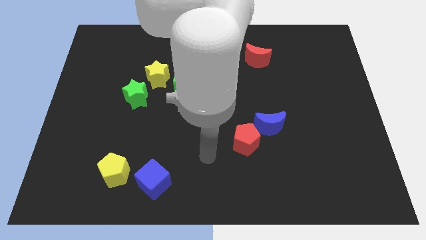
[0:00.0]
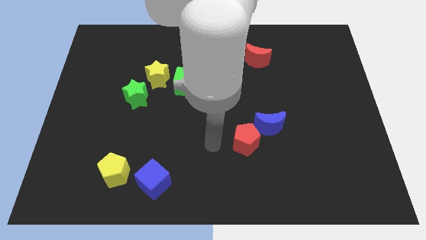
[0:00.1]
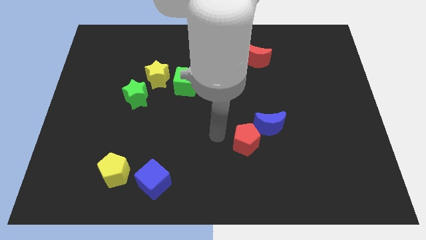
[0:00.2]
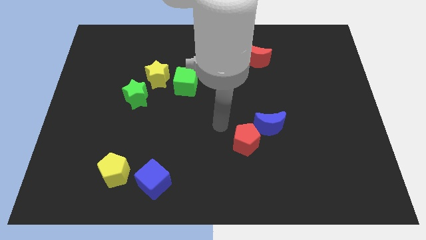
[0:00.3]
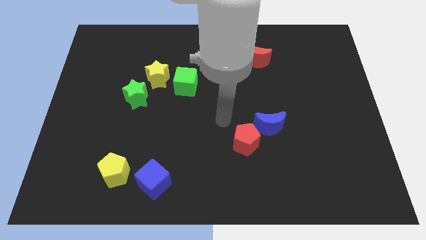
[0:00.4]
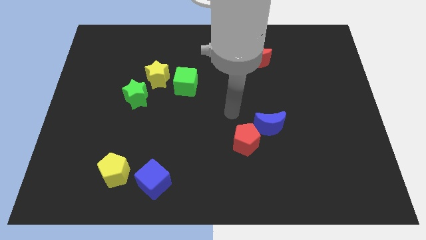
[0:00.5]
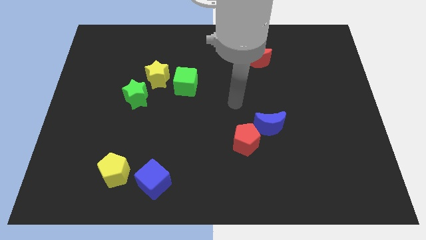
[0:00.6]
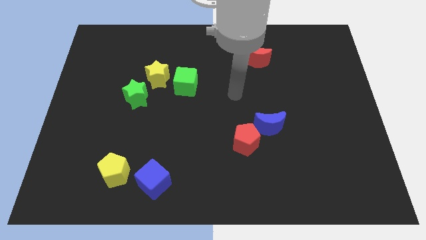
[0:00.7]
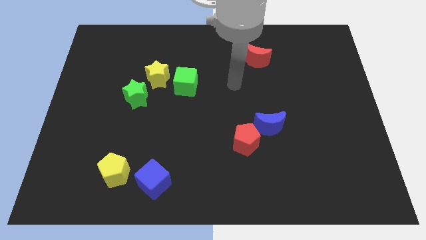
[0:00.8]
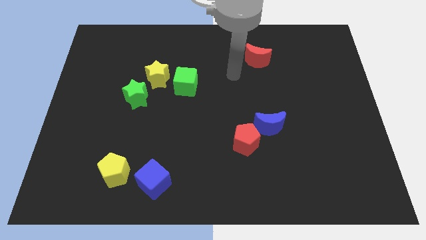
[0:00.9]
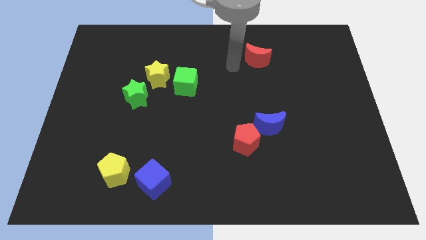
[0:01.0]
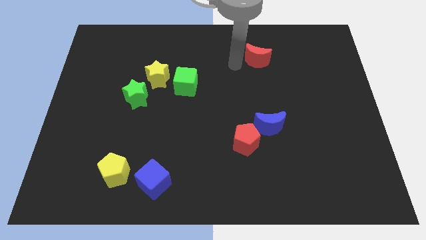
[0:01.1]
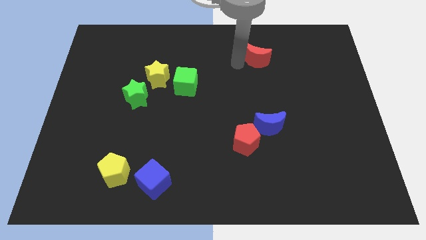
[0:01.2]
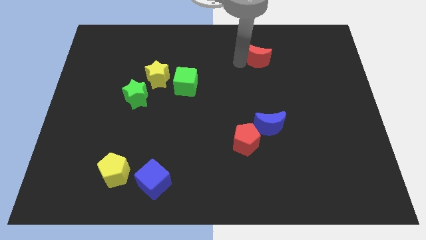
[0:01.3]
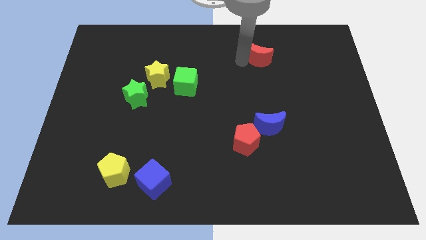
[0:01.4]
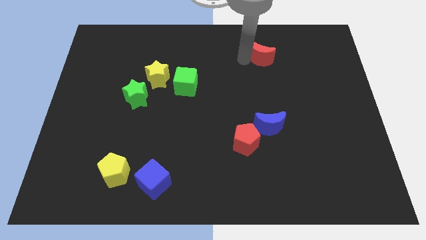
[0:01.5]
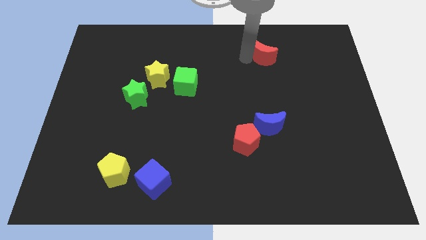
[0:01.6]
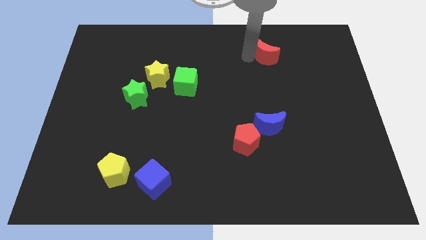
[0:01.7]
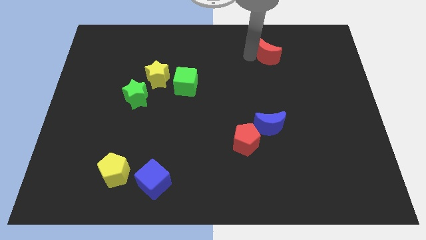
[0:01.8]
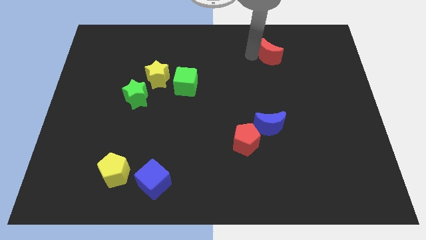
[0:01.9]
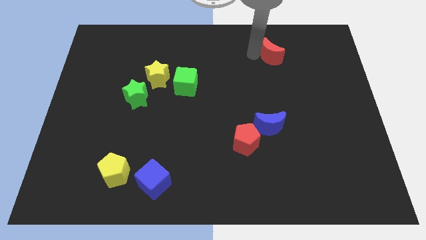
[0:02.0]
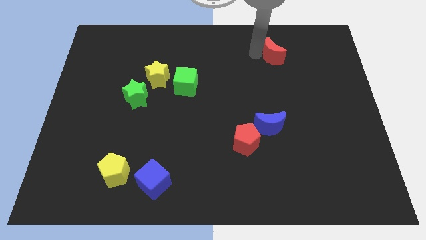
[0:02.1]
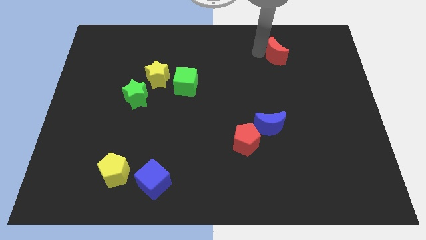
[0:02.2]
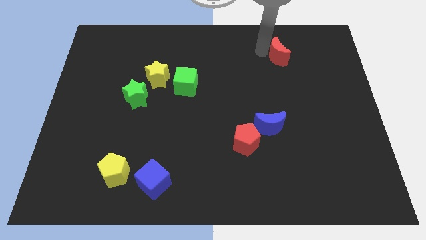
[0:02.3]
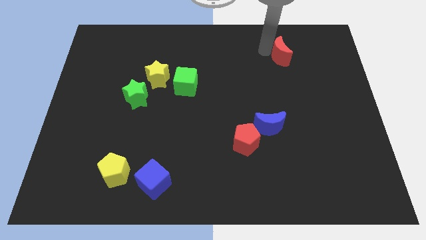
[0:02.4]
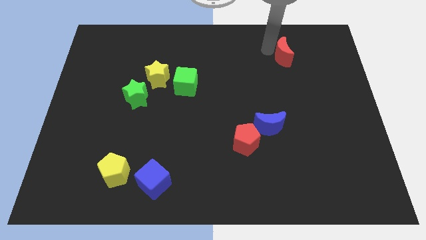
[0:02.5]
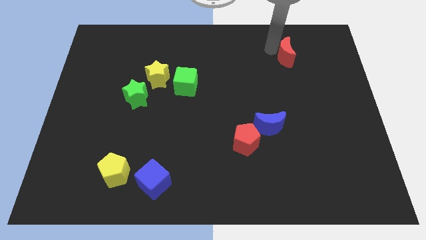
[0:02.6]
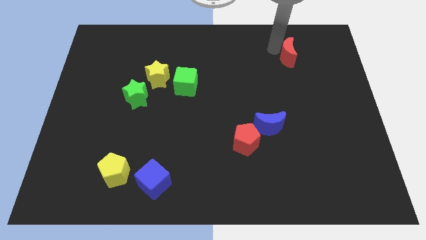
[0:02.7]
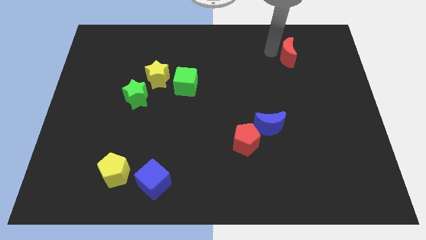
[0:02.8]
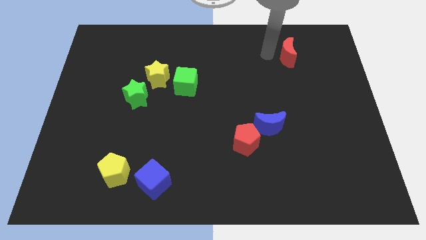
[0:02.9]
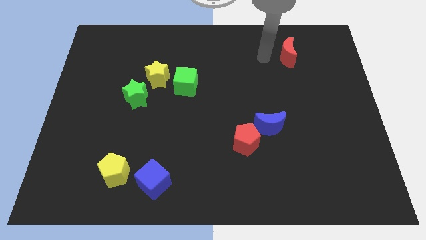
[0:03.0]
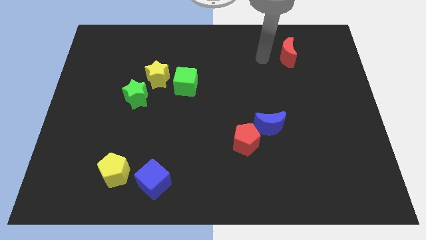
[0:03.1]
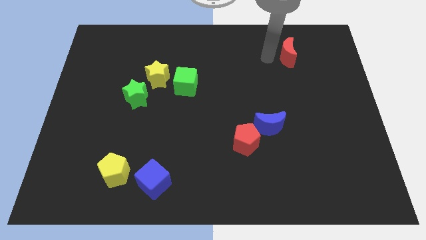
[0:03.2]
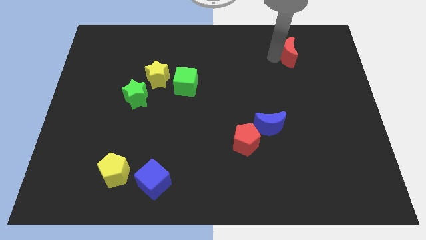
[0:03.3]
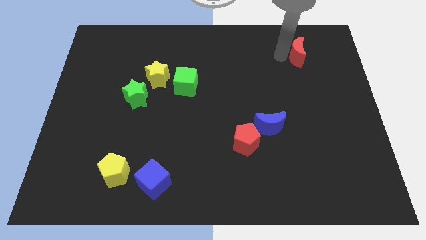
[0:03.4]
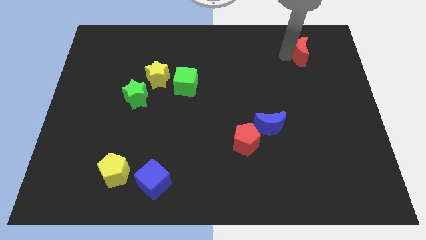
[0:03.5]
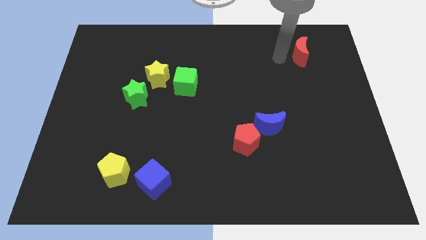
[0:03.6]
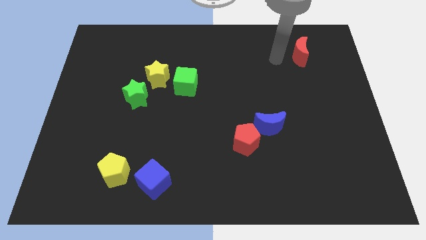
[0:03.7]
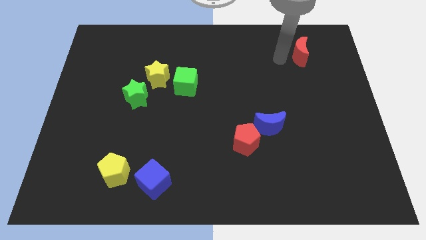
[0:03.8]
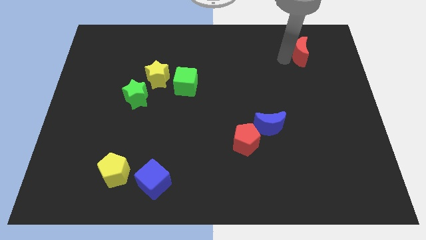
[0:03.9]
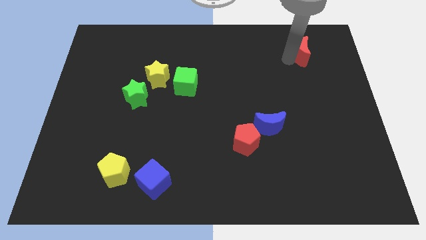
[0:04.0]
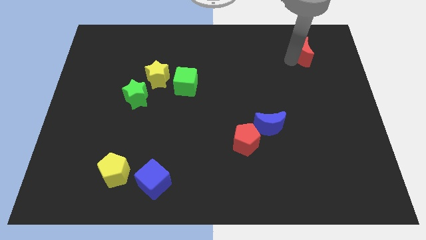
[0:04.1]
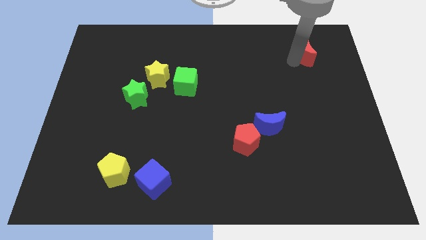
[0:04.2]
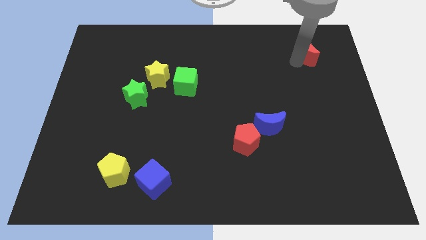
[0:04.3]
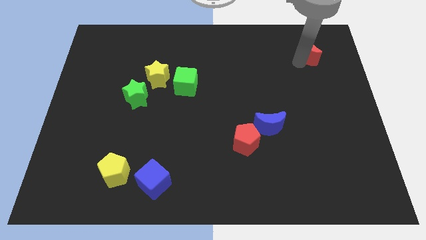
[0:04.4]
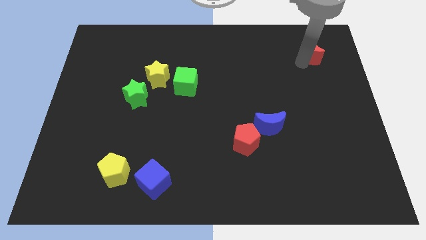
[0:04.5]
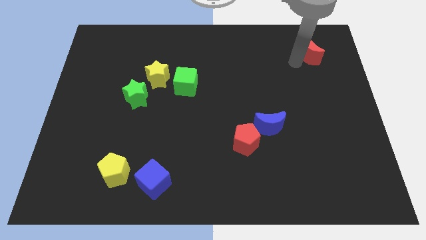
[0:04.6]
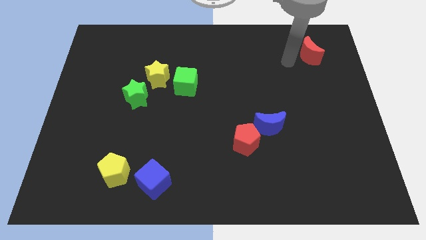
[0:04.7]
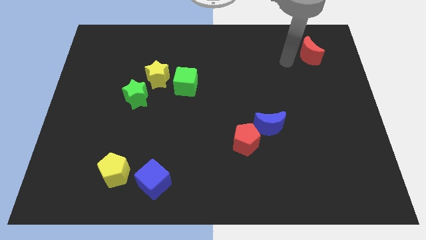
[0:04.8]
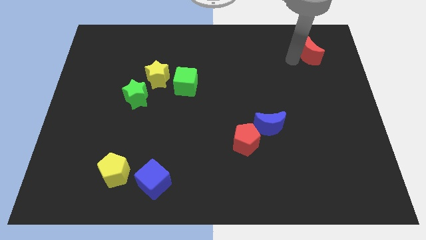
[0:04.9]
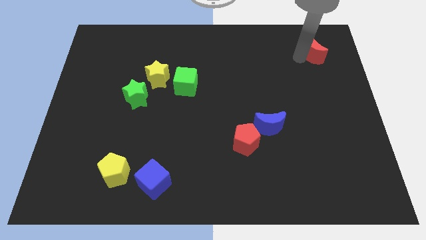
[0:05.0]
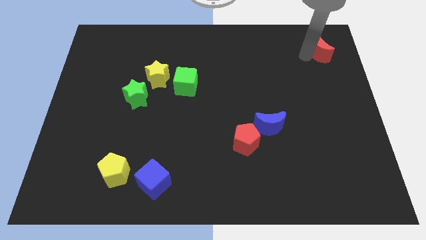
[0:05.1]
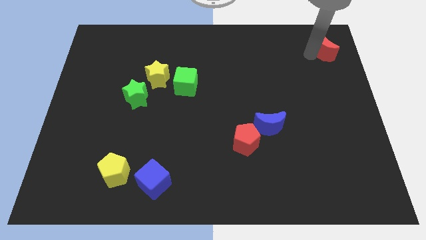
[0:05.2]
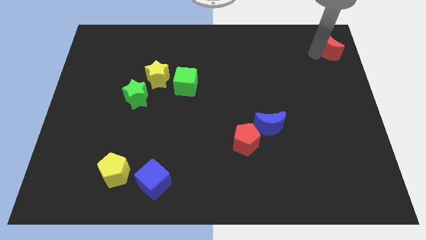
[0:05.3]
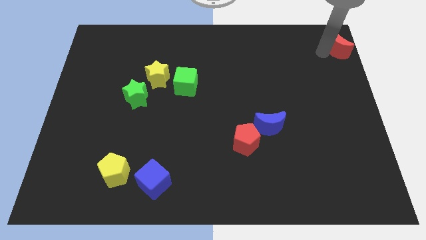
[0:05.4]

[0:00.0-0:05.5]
push the red moon to the top right

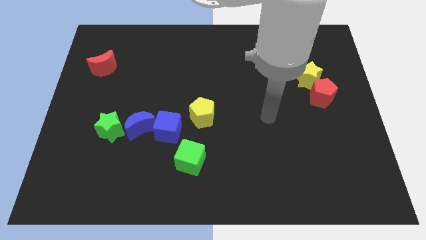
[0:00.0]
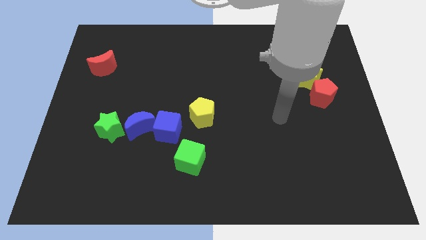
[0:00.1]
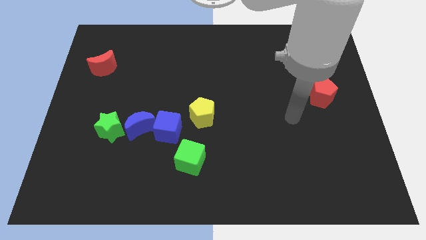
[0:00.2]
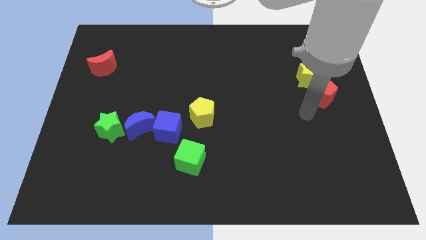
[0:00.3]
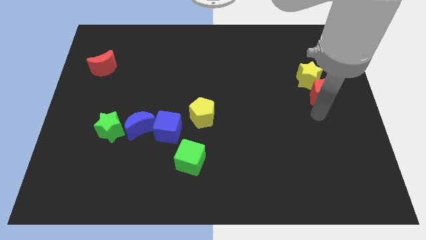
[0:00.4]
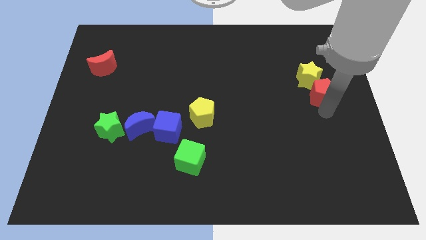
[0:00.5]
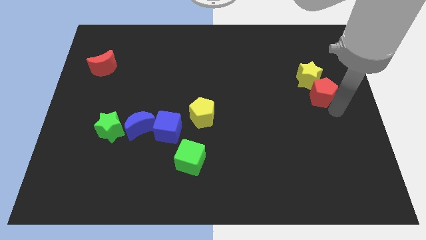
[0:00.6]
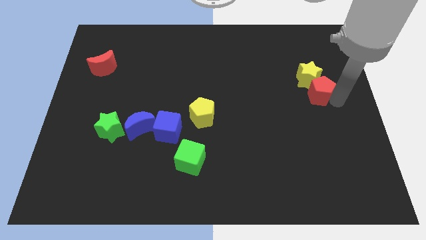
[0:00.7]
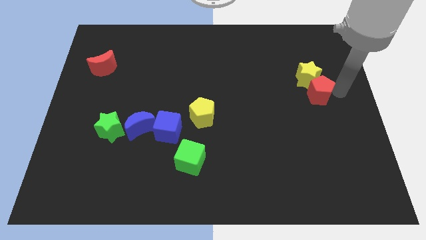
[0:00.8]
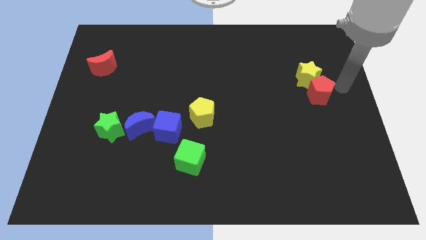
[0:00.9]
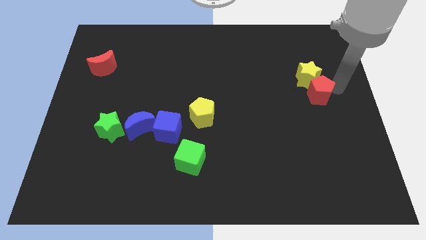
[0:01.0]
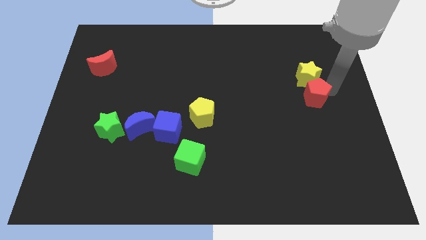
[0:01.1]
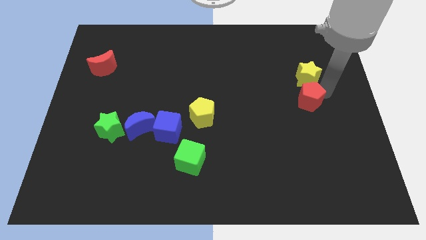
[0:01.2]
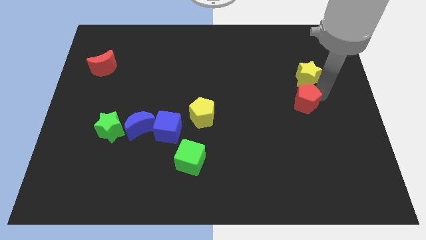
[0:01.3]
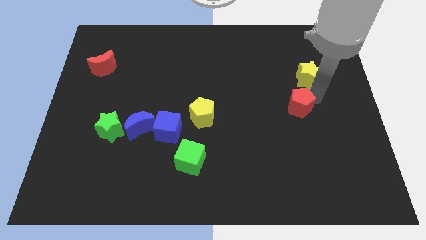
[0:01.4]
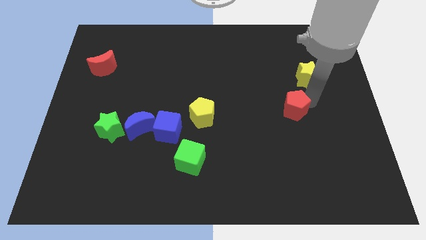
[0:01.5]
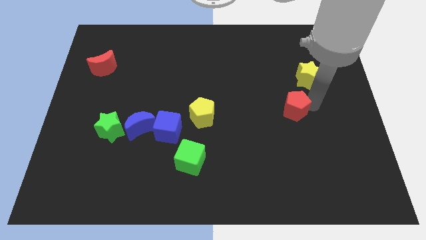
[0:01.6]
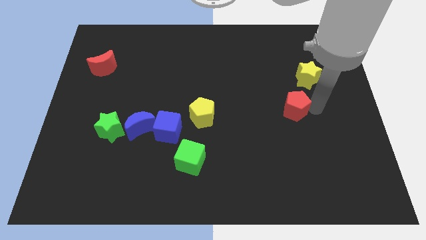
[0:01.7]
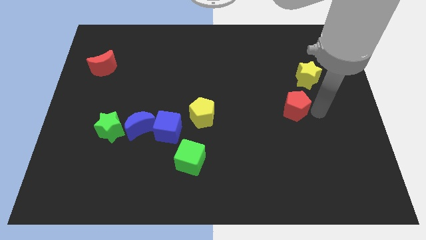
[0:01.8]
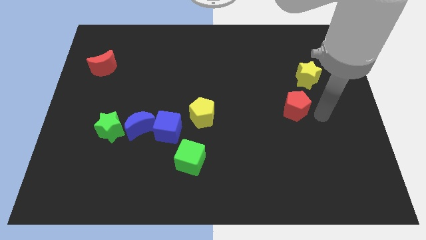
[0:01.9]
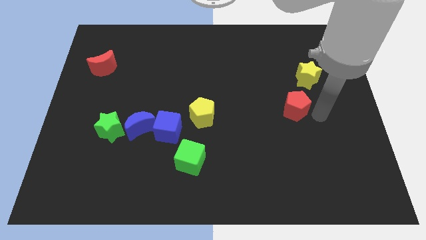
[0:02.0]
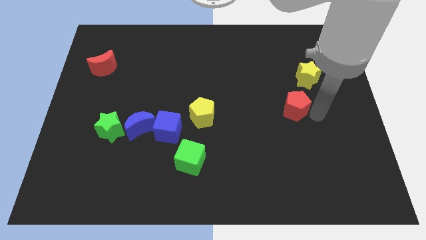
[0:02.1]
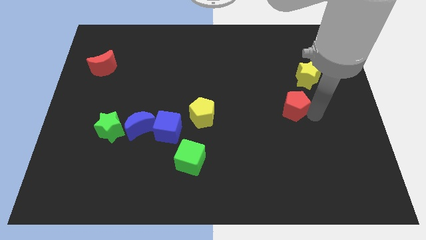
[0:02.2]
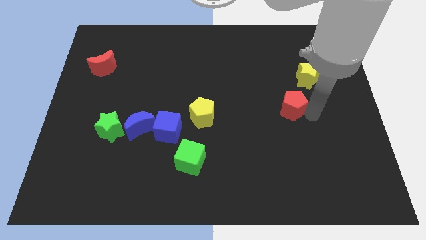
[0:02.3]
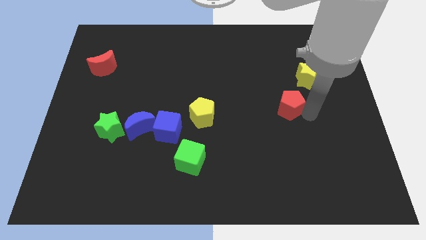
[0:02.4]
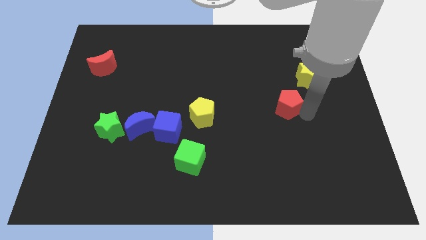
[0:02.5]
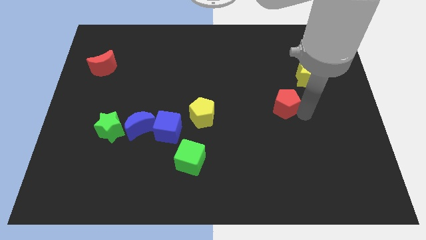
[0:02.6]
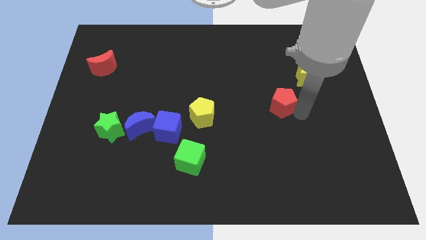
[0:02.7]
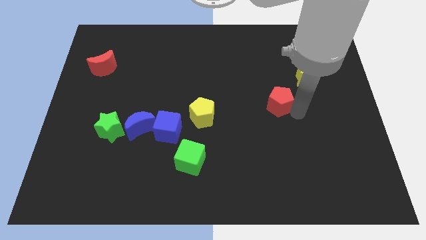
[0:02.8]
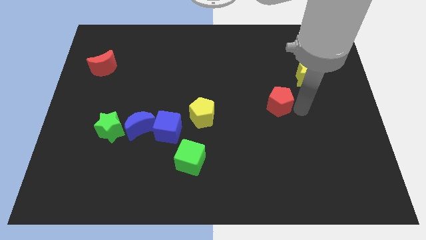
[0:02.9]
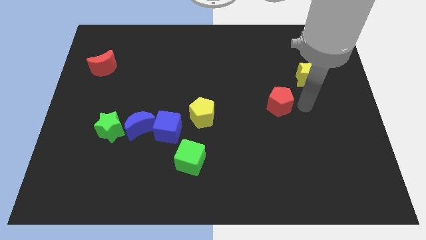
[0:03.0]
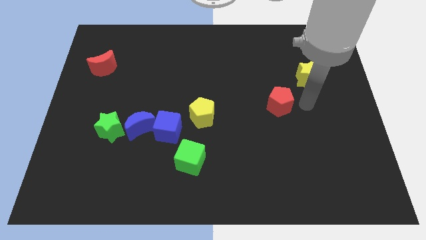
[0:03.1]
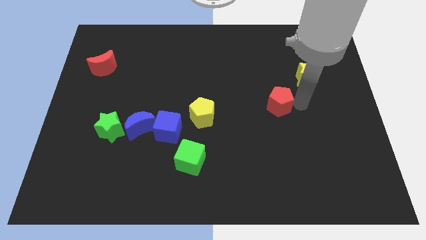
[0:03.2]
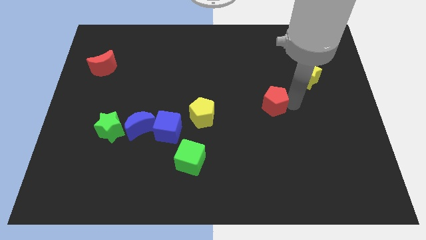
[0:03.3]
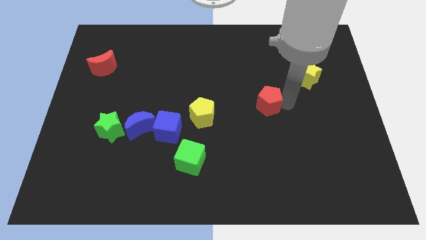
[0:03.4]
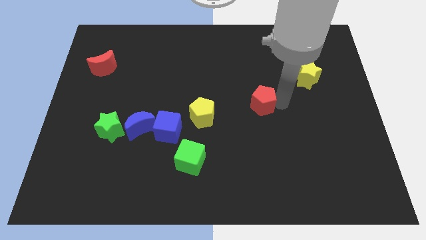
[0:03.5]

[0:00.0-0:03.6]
move the red pentagon to the center of the board
